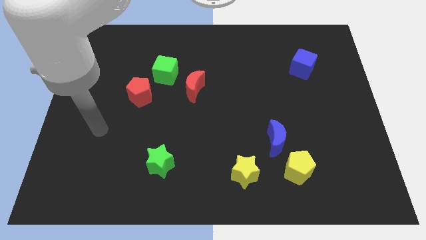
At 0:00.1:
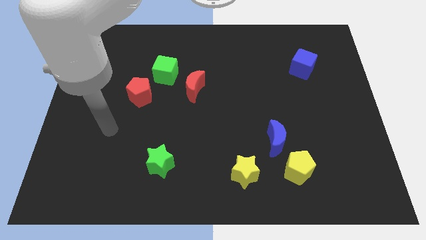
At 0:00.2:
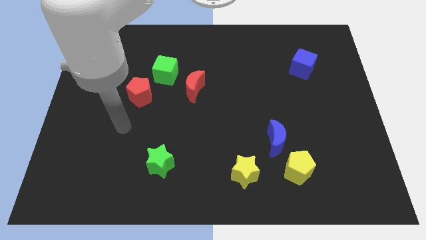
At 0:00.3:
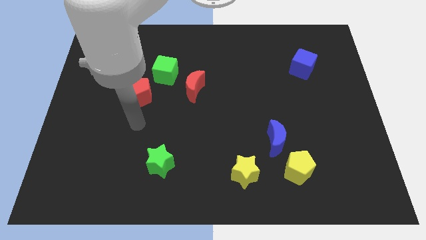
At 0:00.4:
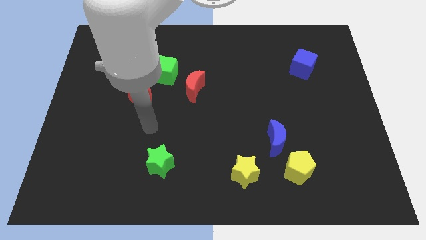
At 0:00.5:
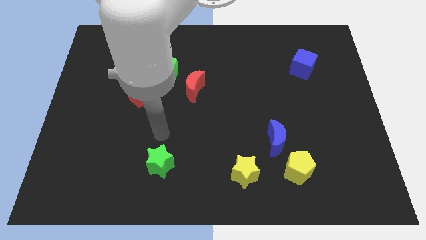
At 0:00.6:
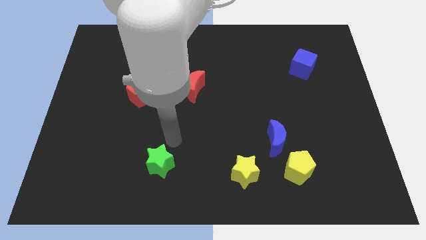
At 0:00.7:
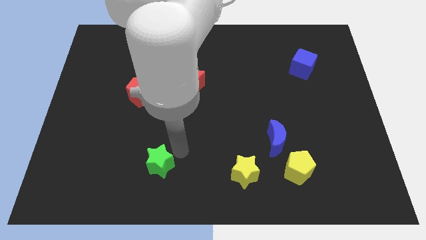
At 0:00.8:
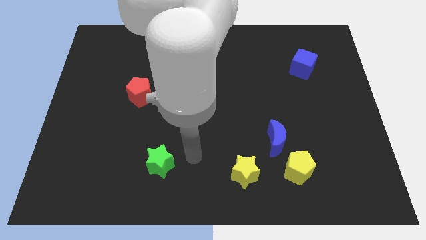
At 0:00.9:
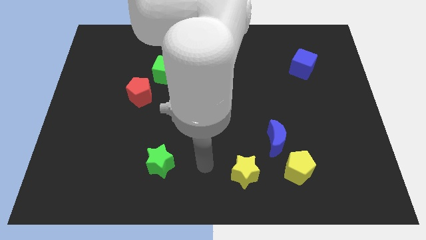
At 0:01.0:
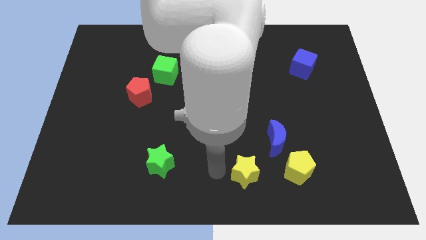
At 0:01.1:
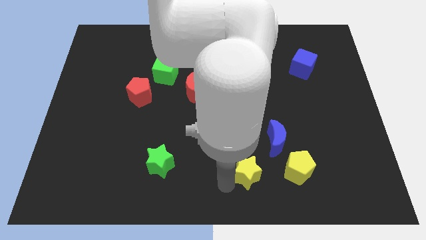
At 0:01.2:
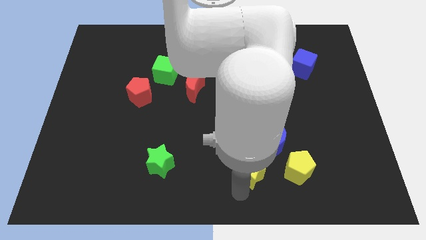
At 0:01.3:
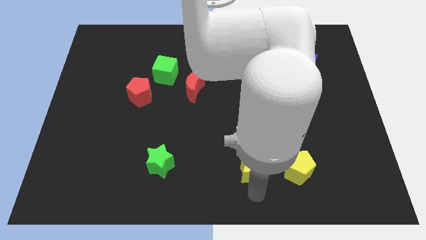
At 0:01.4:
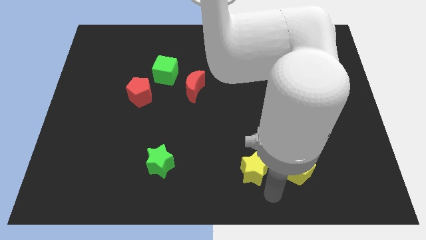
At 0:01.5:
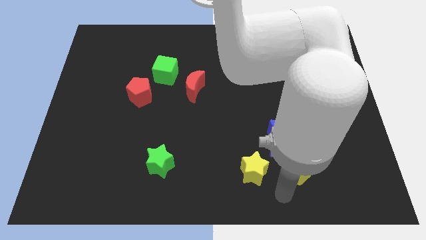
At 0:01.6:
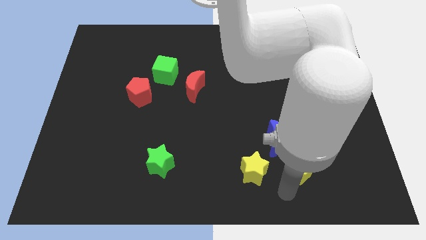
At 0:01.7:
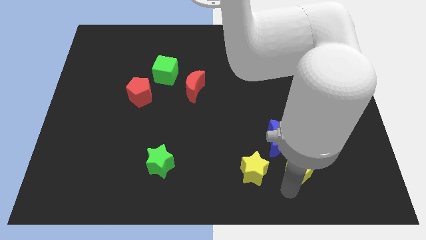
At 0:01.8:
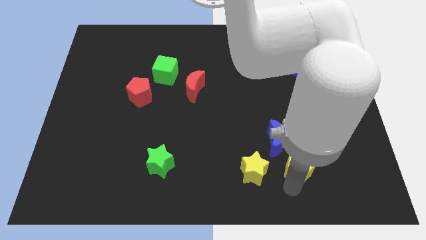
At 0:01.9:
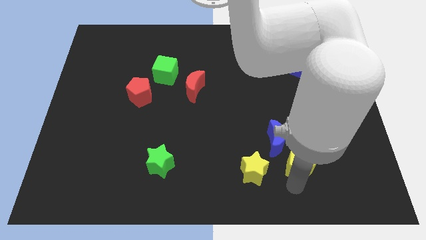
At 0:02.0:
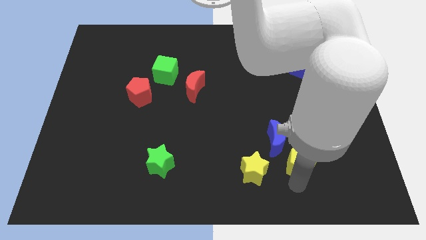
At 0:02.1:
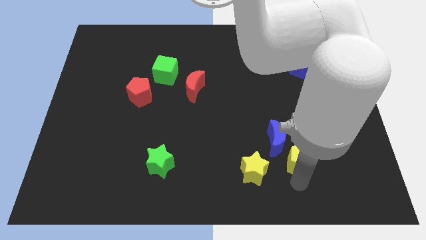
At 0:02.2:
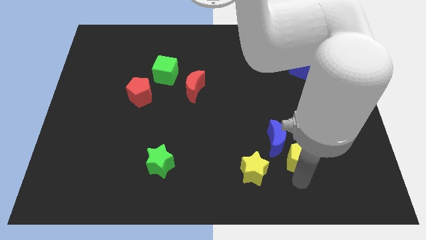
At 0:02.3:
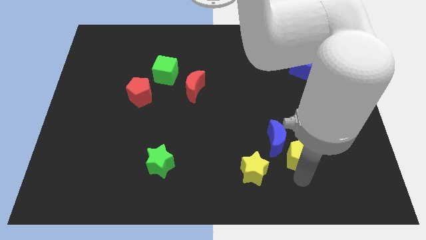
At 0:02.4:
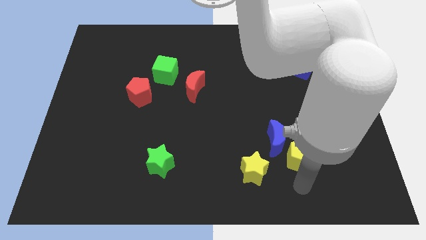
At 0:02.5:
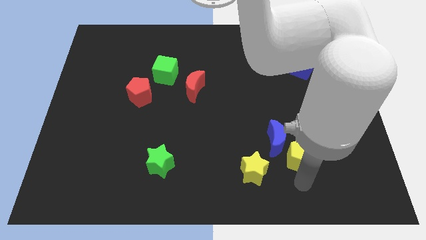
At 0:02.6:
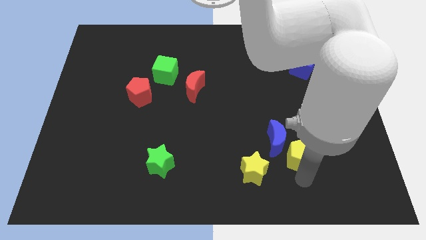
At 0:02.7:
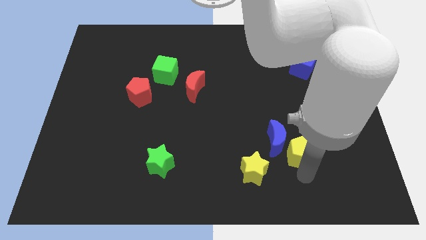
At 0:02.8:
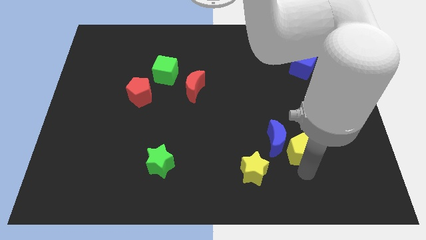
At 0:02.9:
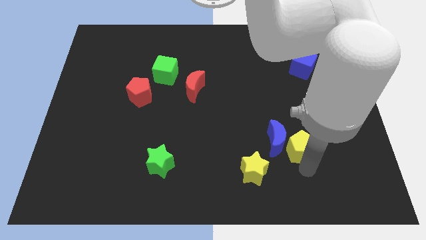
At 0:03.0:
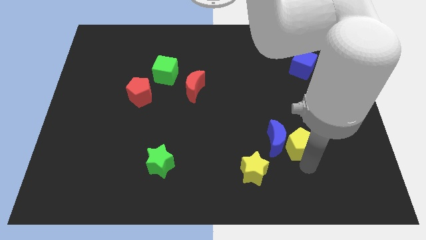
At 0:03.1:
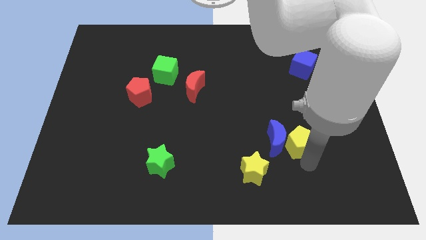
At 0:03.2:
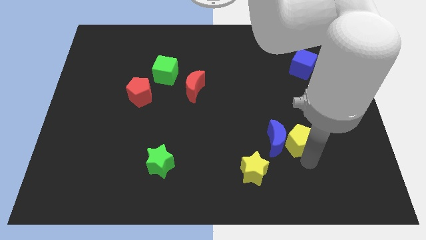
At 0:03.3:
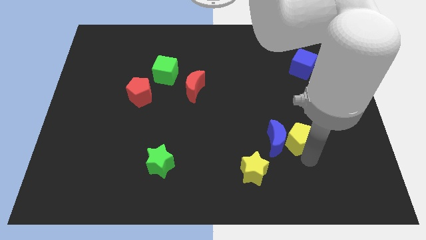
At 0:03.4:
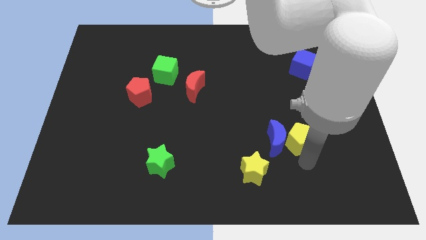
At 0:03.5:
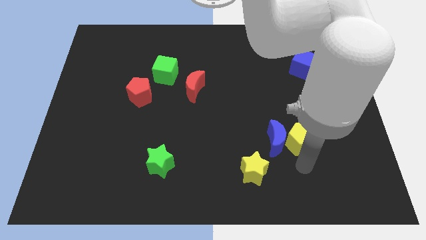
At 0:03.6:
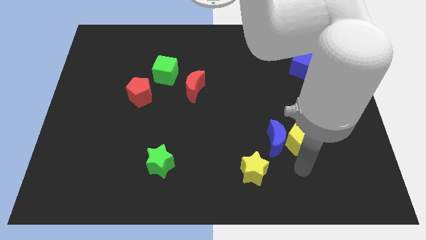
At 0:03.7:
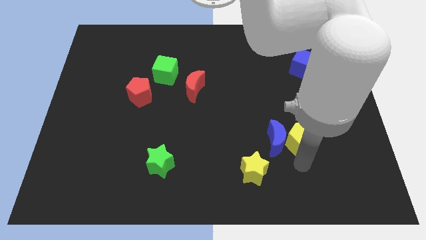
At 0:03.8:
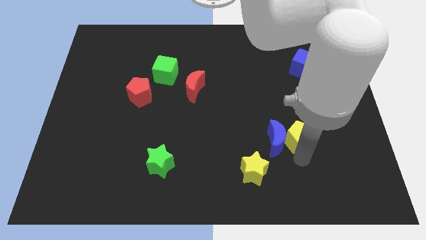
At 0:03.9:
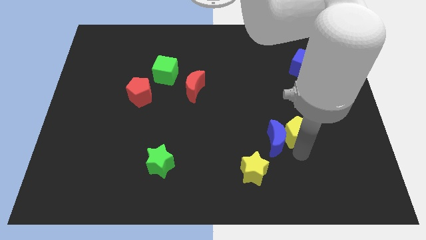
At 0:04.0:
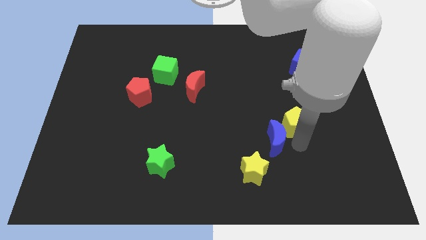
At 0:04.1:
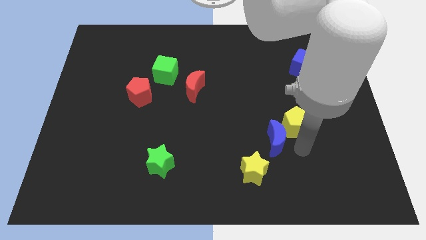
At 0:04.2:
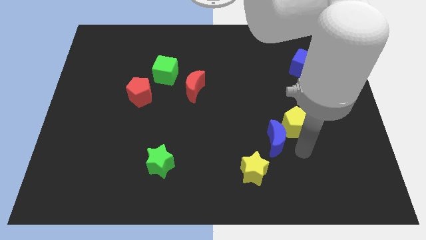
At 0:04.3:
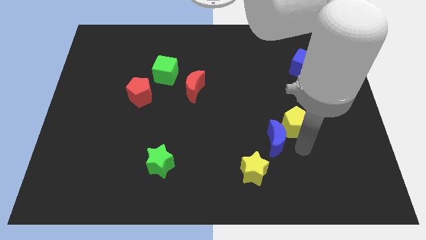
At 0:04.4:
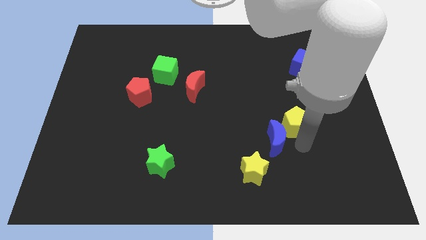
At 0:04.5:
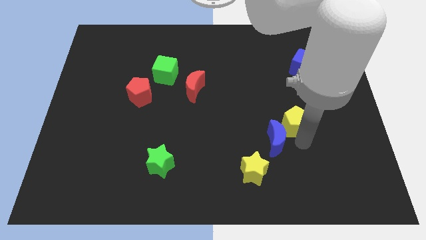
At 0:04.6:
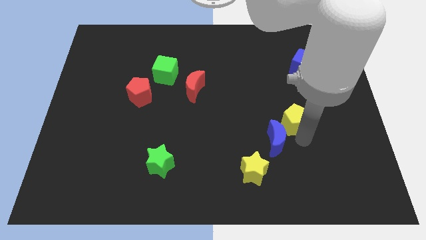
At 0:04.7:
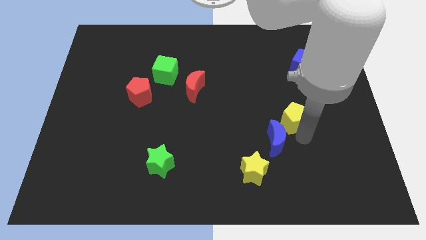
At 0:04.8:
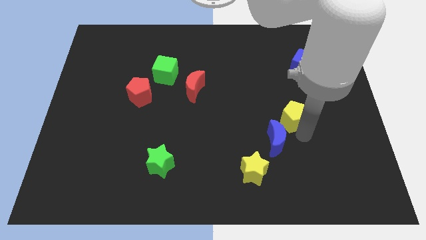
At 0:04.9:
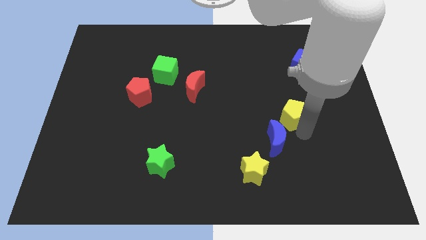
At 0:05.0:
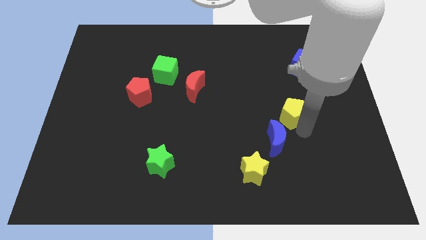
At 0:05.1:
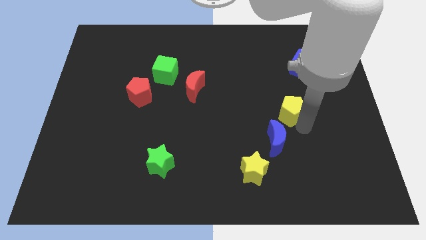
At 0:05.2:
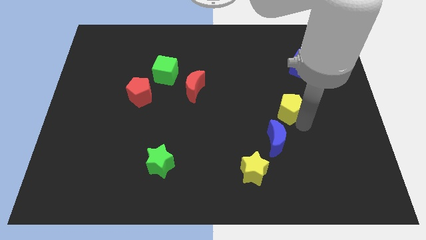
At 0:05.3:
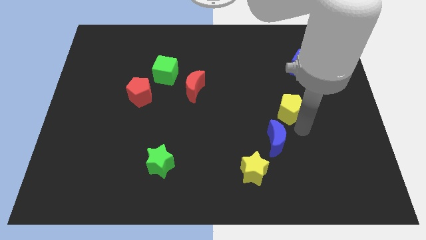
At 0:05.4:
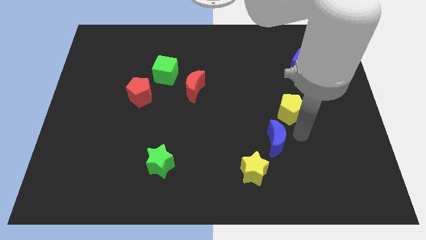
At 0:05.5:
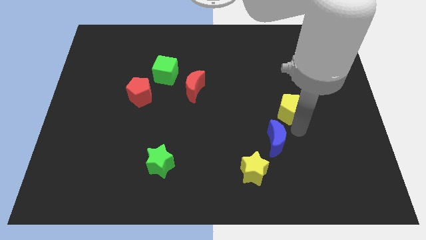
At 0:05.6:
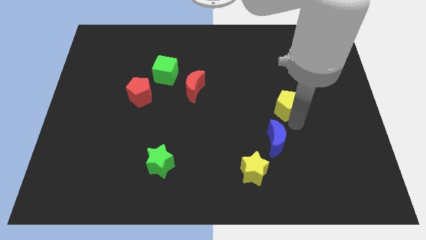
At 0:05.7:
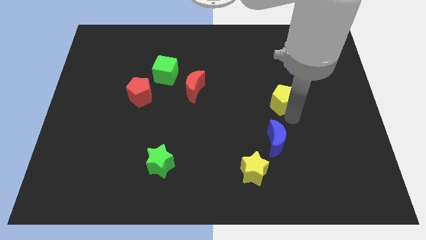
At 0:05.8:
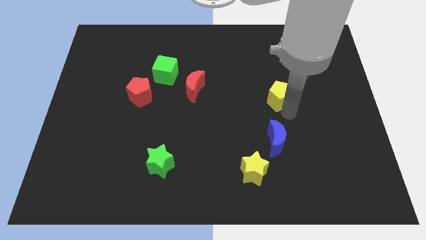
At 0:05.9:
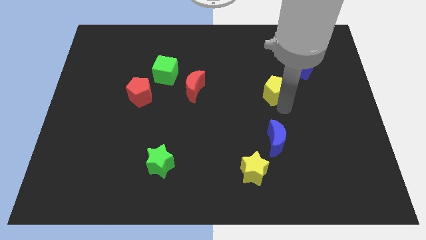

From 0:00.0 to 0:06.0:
slide the yellow pentagon up

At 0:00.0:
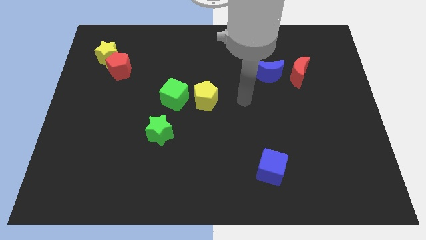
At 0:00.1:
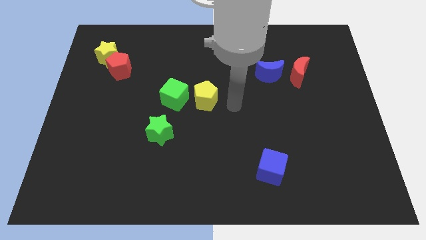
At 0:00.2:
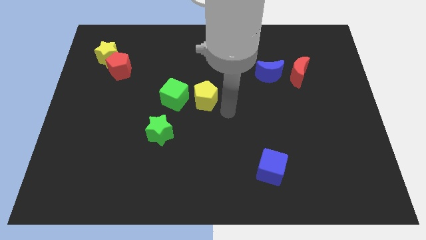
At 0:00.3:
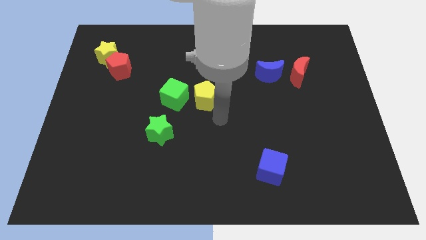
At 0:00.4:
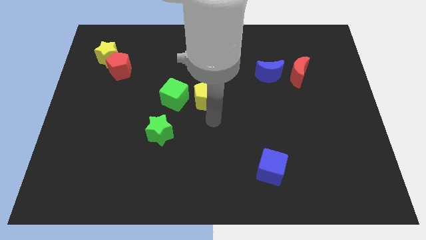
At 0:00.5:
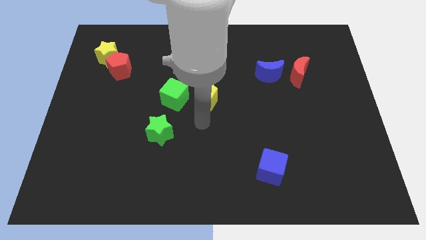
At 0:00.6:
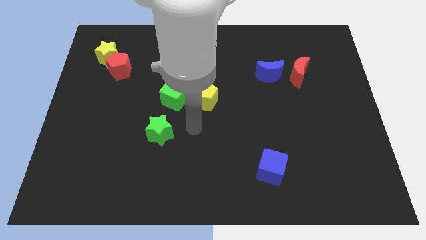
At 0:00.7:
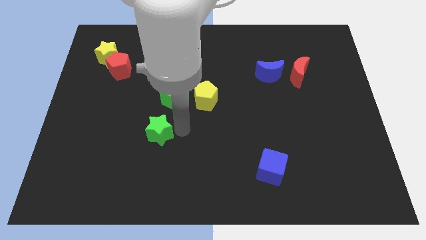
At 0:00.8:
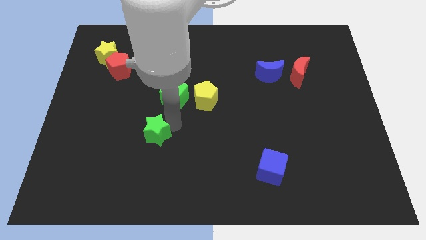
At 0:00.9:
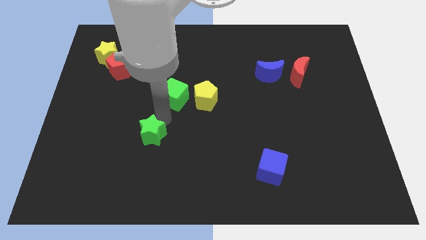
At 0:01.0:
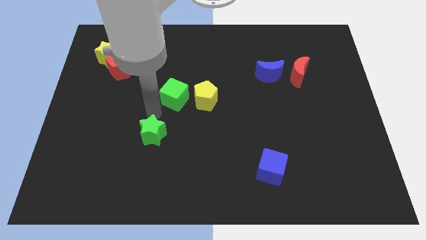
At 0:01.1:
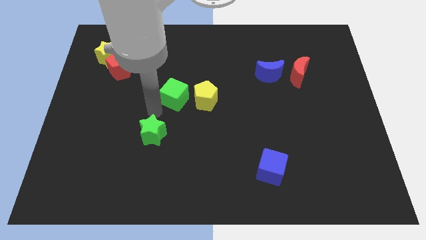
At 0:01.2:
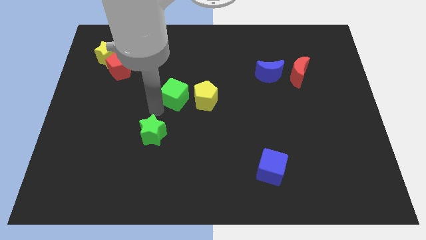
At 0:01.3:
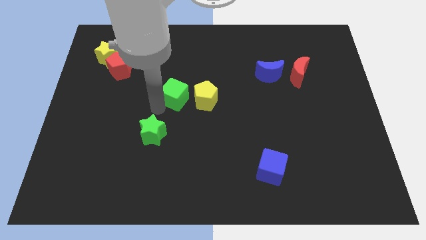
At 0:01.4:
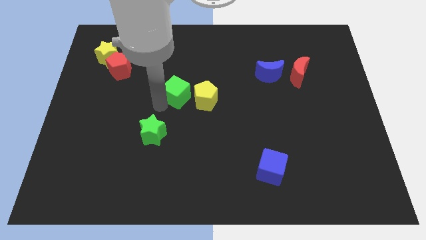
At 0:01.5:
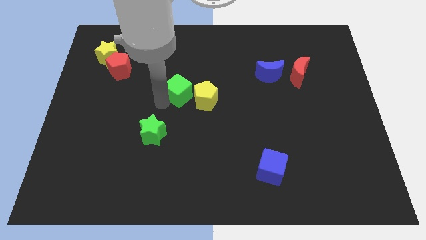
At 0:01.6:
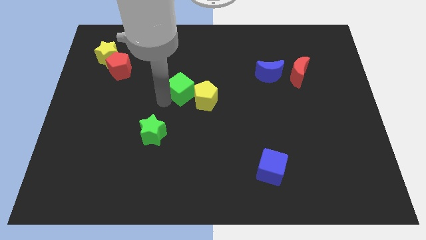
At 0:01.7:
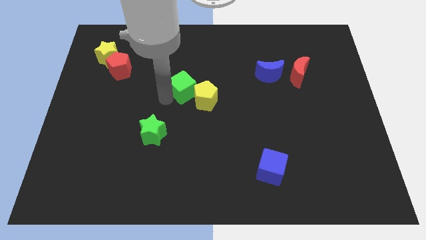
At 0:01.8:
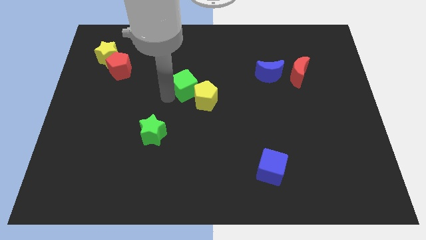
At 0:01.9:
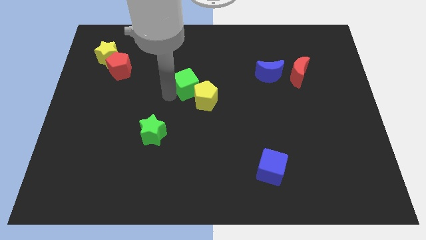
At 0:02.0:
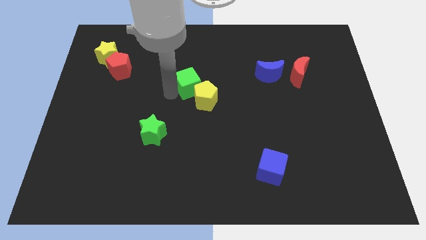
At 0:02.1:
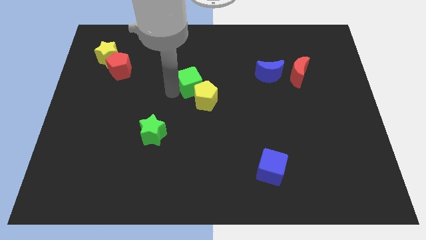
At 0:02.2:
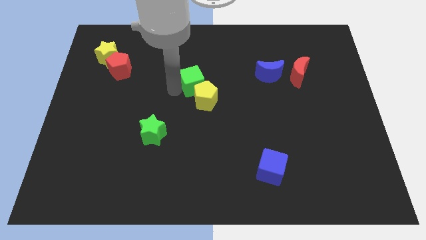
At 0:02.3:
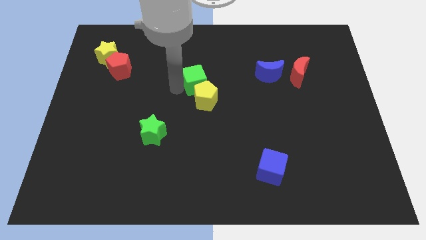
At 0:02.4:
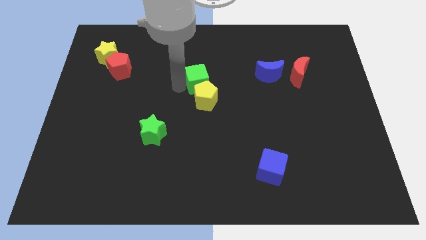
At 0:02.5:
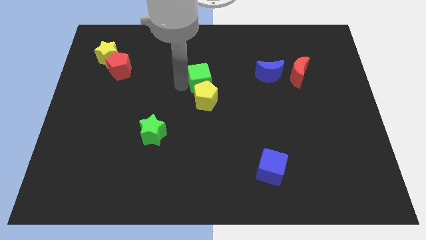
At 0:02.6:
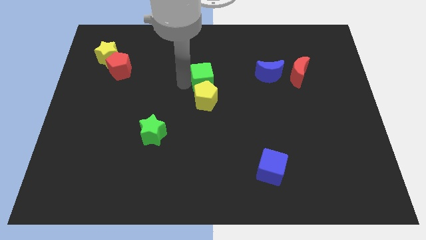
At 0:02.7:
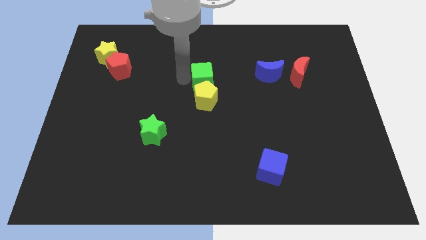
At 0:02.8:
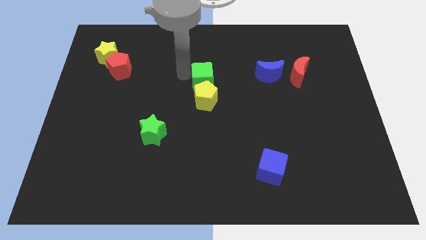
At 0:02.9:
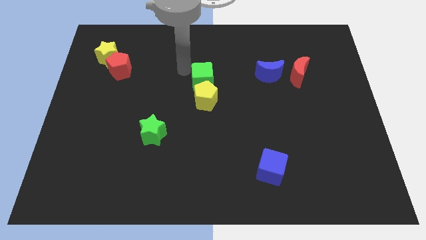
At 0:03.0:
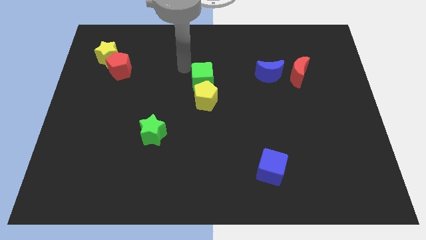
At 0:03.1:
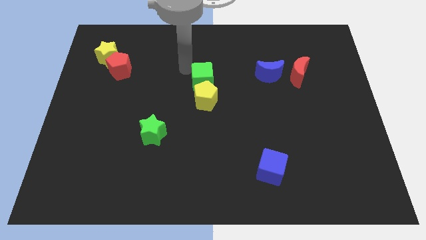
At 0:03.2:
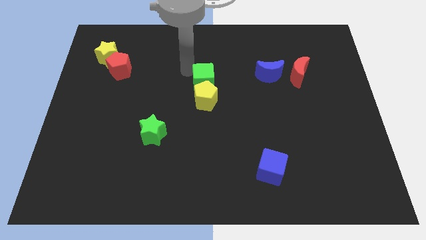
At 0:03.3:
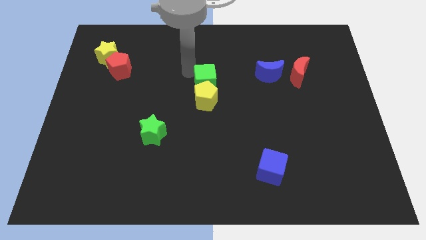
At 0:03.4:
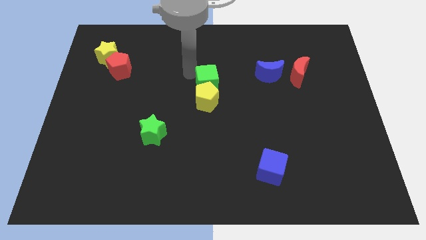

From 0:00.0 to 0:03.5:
slightly push the green cube right
